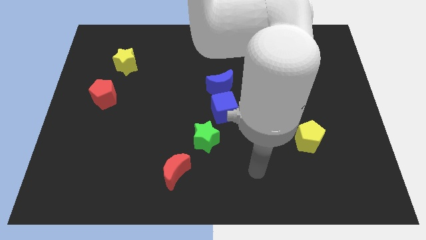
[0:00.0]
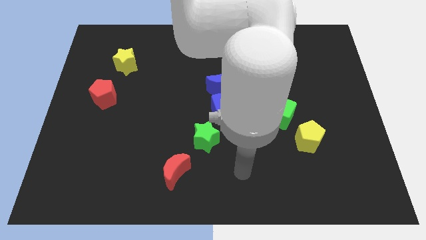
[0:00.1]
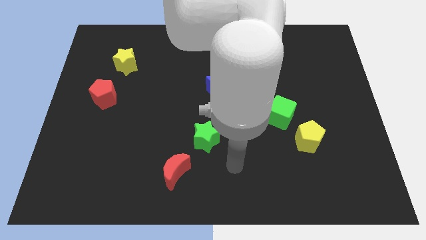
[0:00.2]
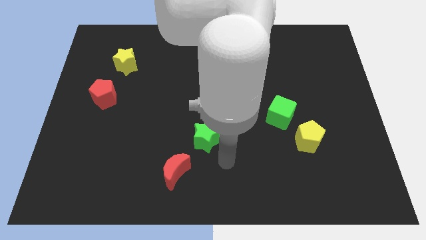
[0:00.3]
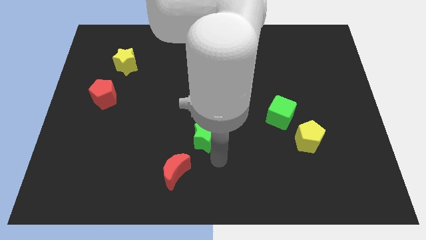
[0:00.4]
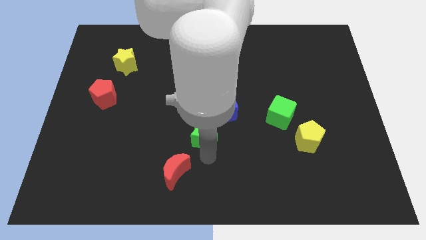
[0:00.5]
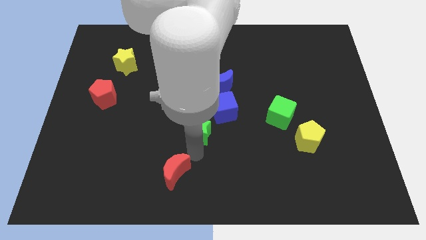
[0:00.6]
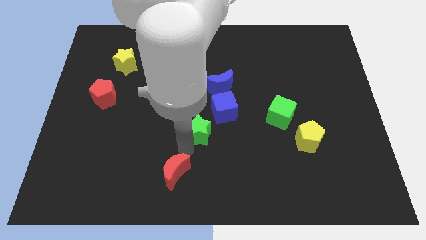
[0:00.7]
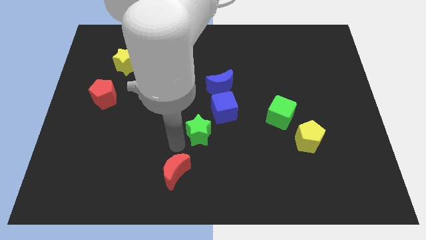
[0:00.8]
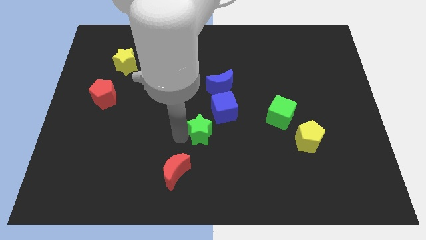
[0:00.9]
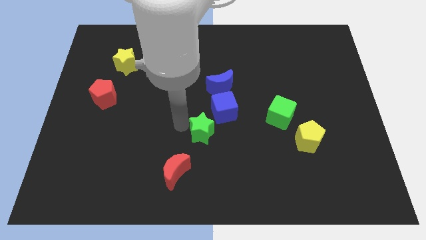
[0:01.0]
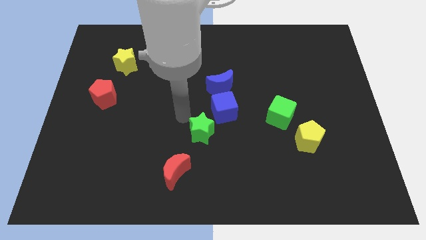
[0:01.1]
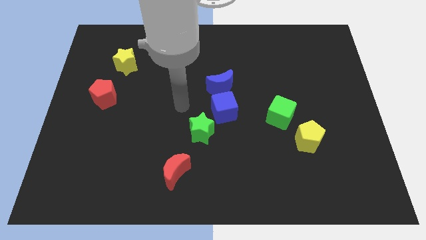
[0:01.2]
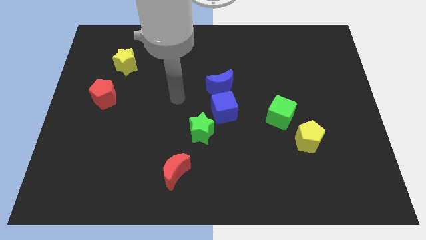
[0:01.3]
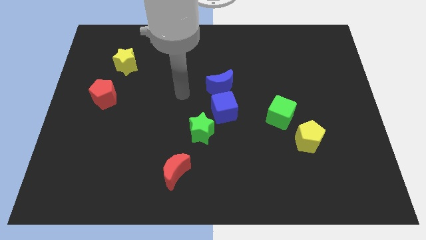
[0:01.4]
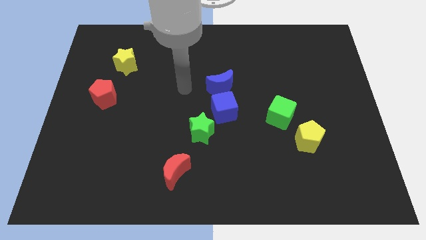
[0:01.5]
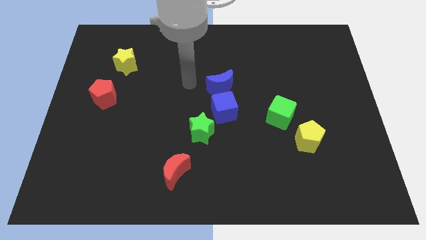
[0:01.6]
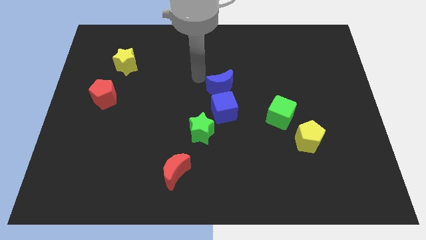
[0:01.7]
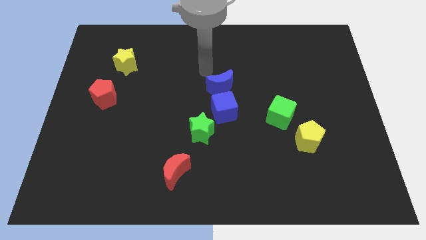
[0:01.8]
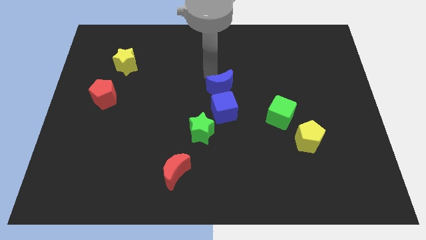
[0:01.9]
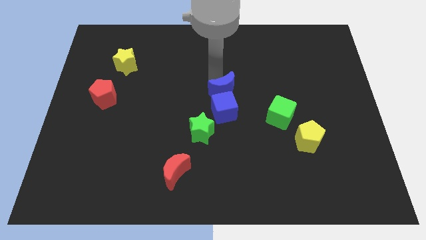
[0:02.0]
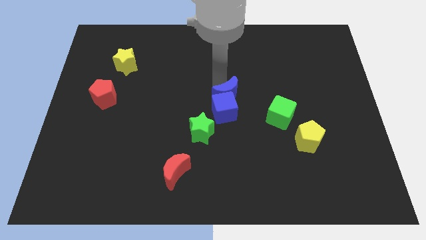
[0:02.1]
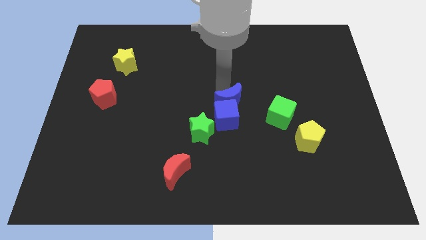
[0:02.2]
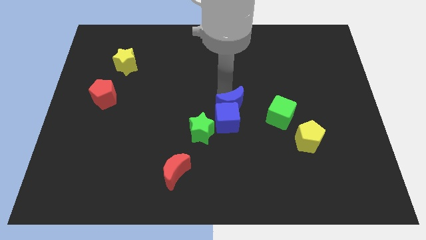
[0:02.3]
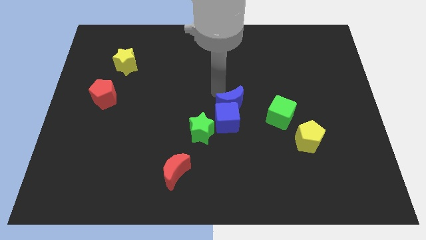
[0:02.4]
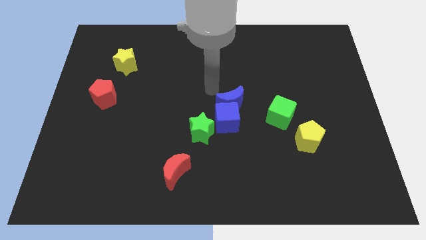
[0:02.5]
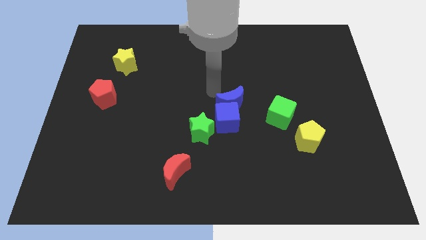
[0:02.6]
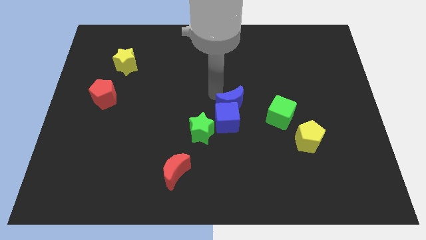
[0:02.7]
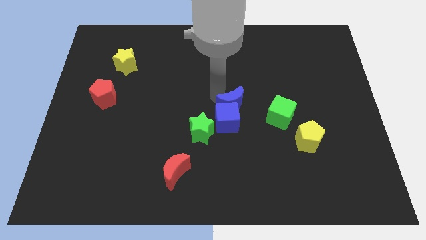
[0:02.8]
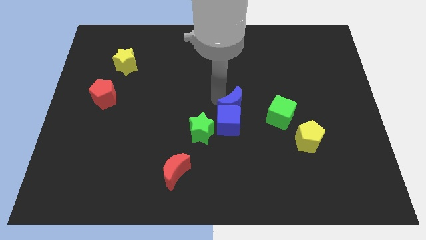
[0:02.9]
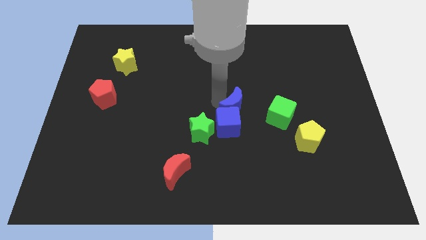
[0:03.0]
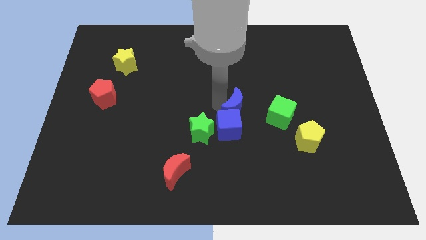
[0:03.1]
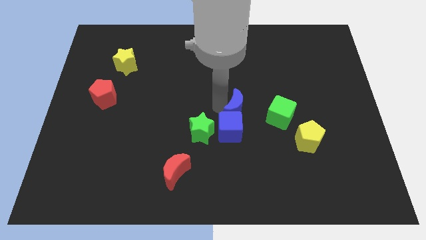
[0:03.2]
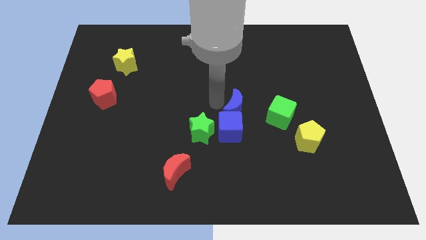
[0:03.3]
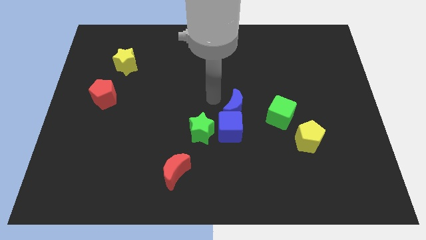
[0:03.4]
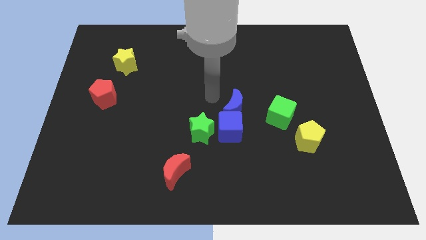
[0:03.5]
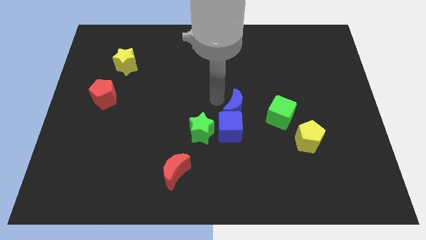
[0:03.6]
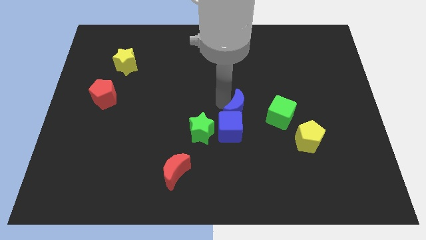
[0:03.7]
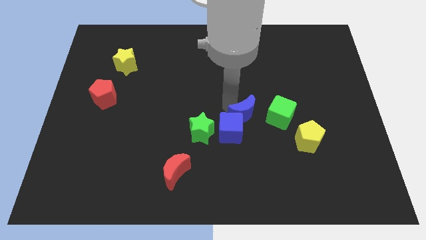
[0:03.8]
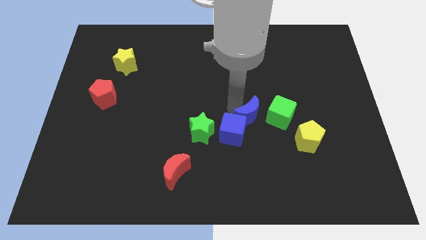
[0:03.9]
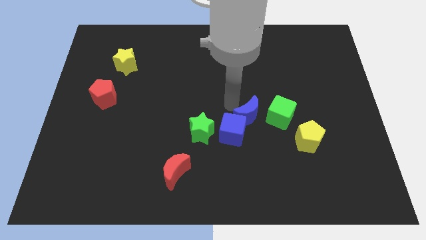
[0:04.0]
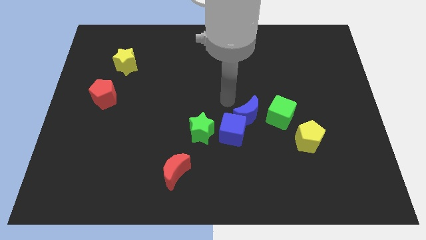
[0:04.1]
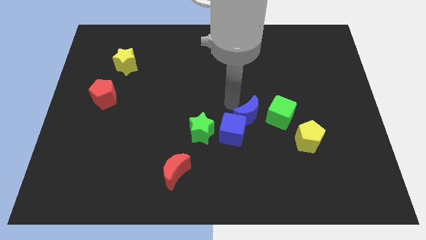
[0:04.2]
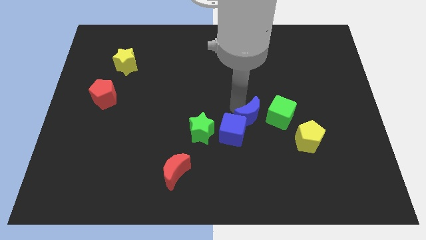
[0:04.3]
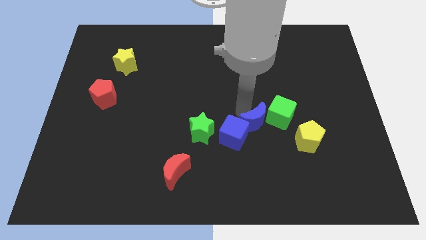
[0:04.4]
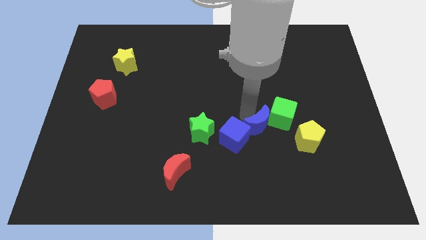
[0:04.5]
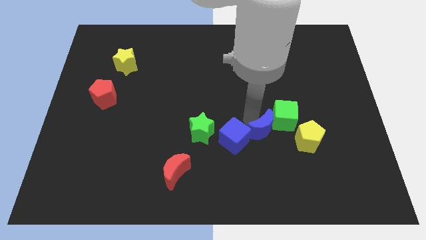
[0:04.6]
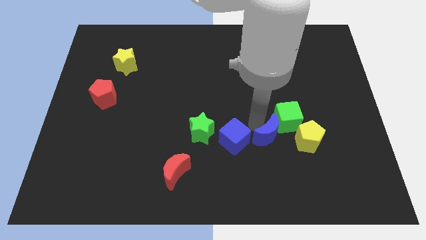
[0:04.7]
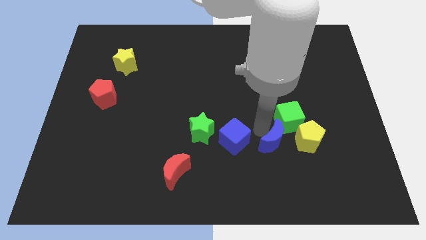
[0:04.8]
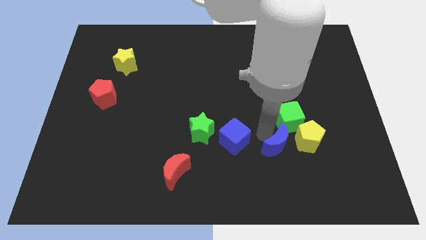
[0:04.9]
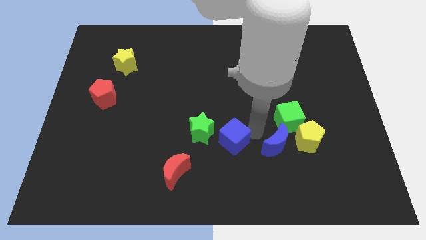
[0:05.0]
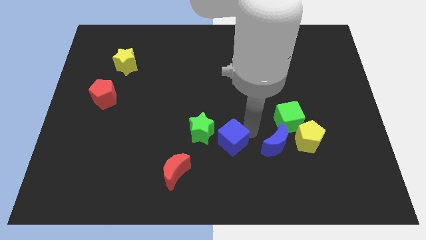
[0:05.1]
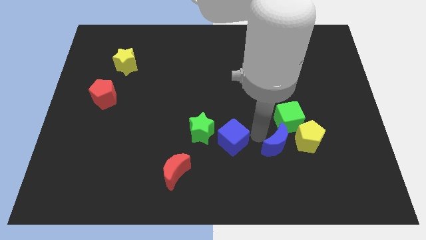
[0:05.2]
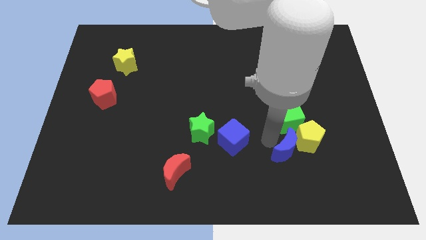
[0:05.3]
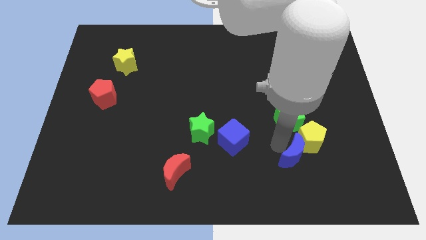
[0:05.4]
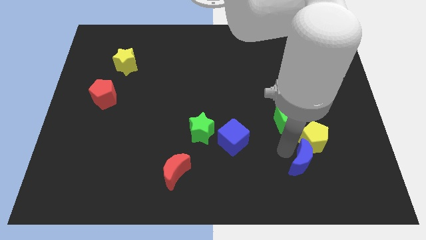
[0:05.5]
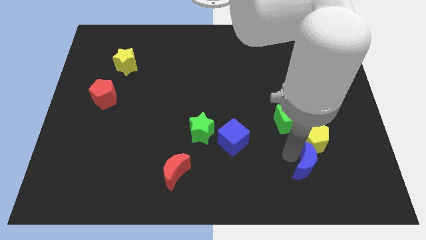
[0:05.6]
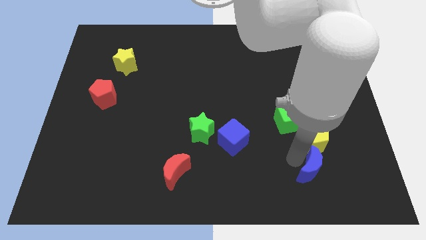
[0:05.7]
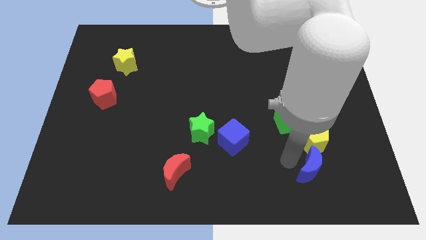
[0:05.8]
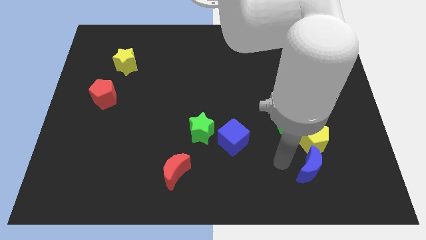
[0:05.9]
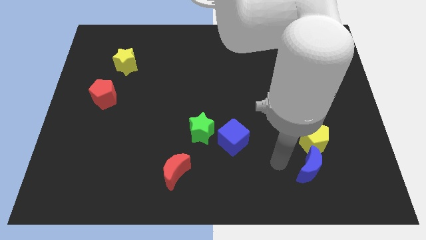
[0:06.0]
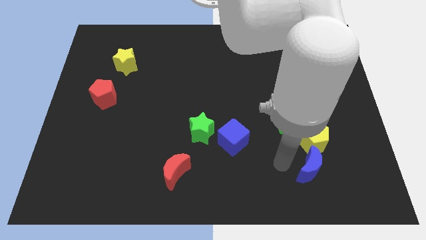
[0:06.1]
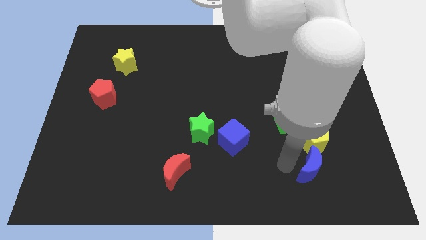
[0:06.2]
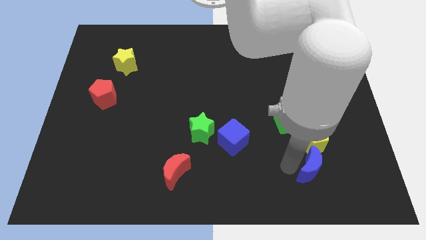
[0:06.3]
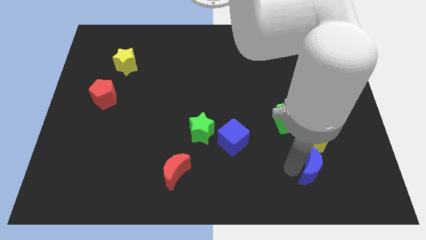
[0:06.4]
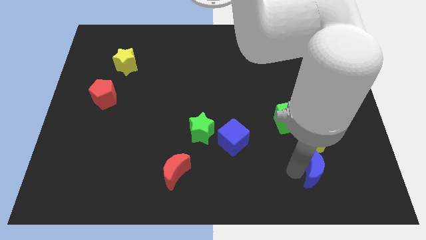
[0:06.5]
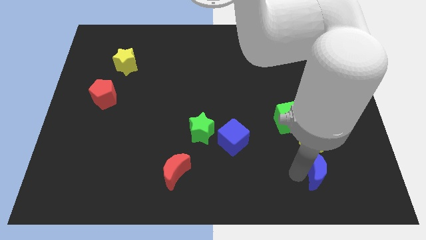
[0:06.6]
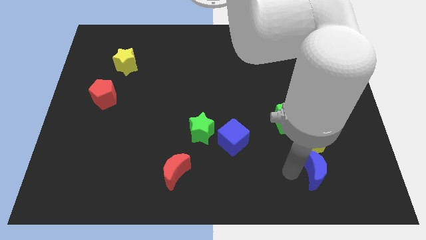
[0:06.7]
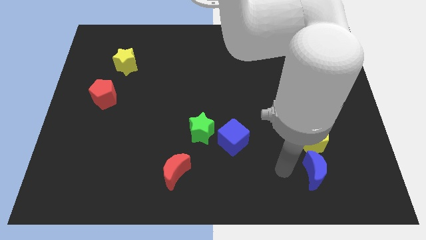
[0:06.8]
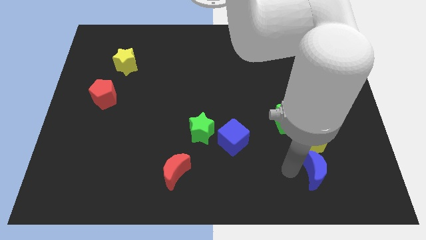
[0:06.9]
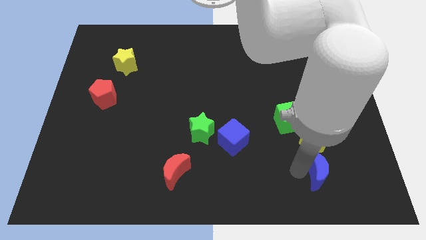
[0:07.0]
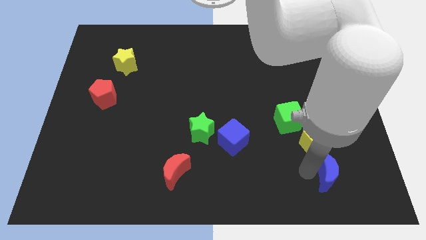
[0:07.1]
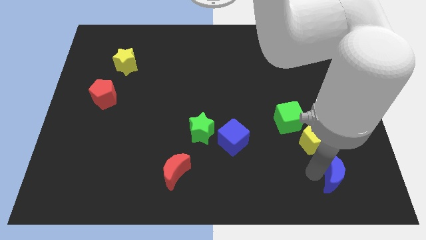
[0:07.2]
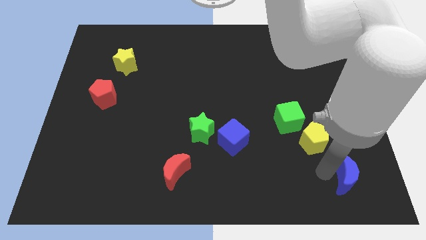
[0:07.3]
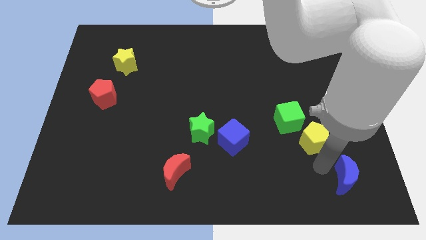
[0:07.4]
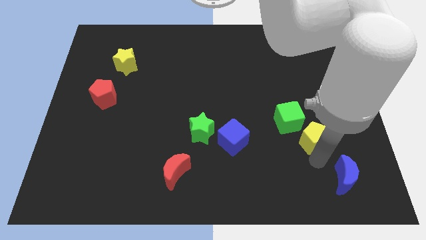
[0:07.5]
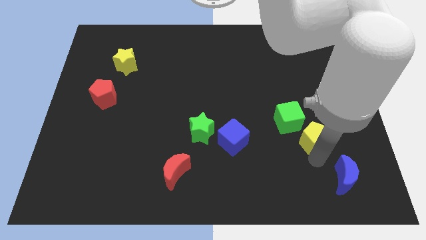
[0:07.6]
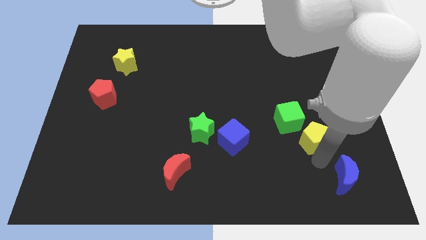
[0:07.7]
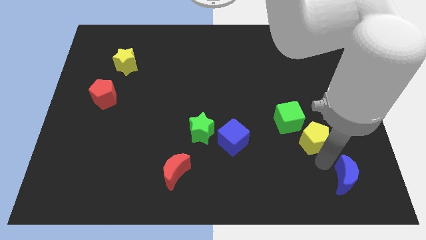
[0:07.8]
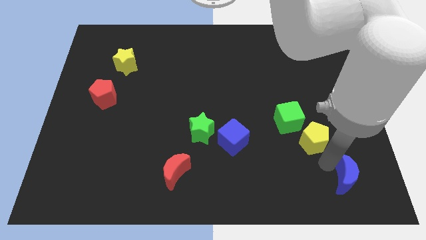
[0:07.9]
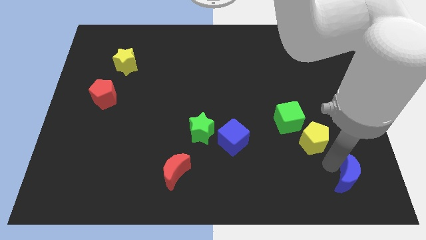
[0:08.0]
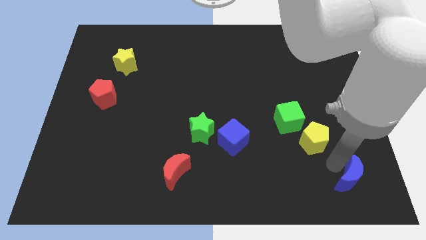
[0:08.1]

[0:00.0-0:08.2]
put the blue moon to the bottom right
